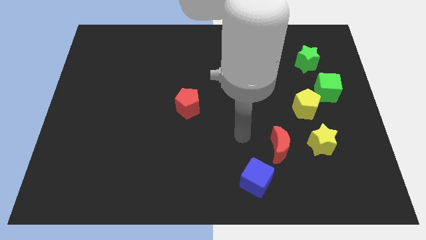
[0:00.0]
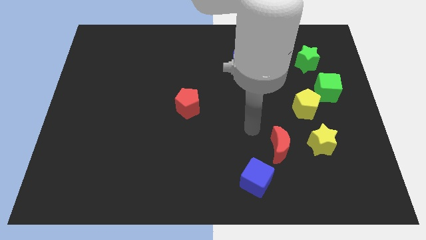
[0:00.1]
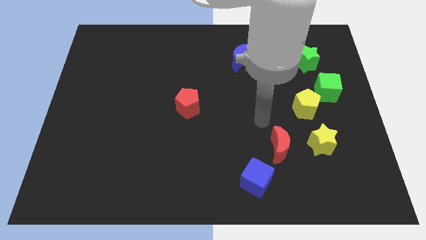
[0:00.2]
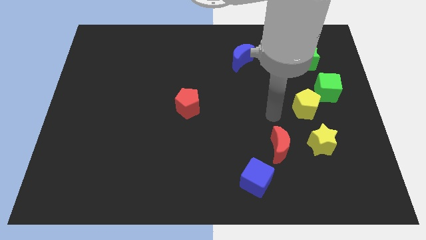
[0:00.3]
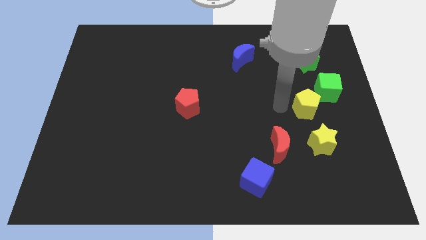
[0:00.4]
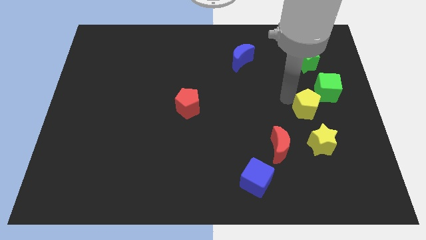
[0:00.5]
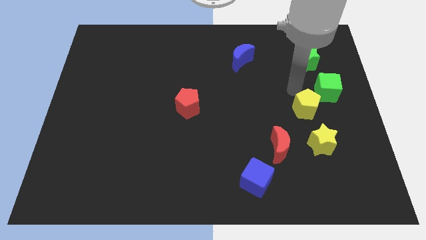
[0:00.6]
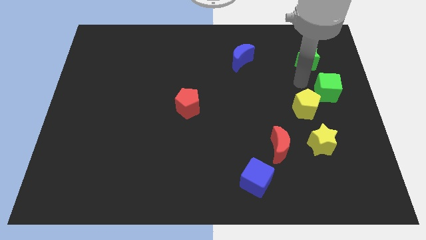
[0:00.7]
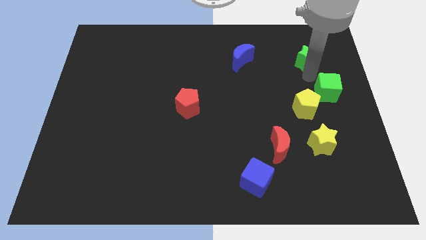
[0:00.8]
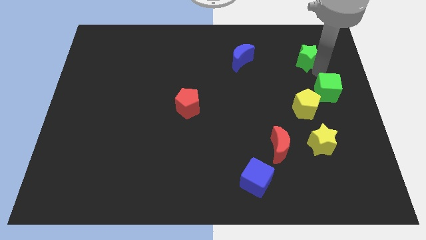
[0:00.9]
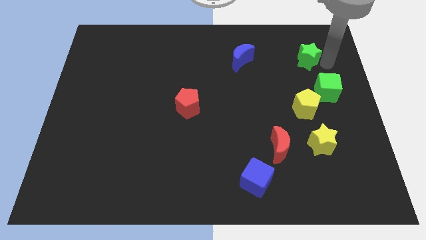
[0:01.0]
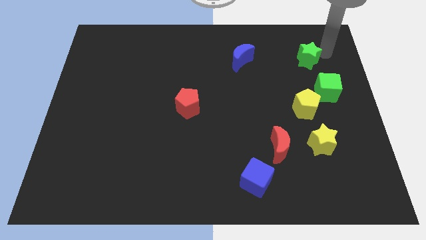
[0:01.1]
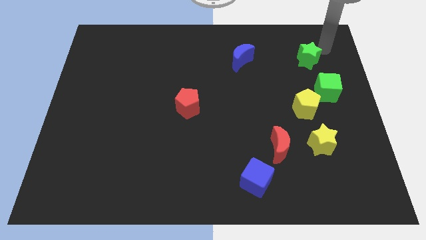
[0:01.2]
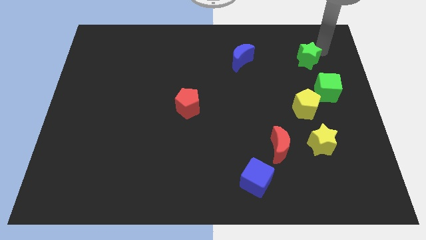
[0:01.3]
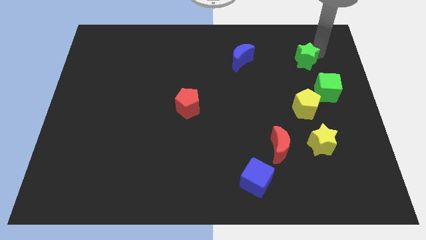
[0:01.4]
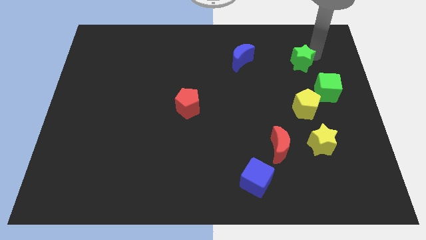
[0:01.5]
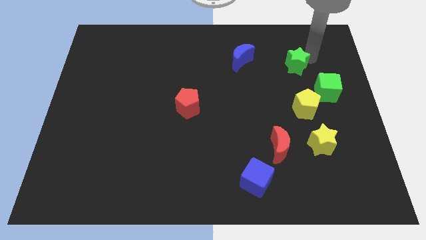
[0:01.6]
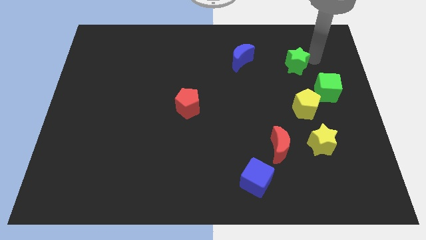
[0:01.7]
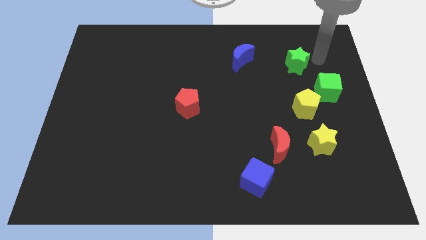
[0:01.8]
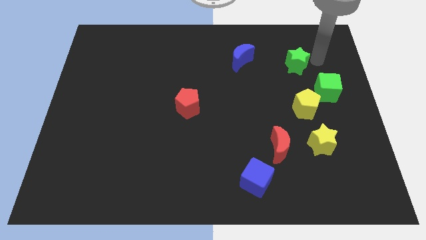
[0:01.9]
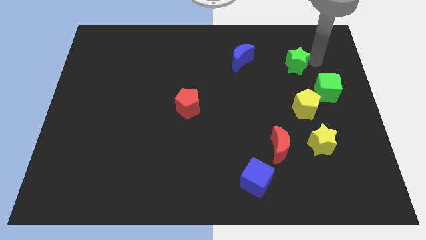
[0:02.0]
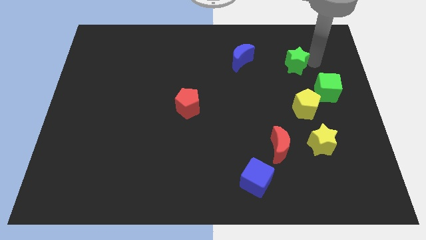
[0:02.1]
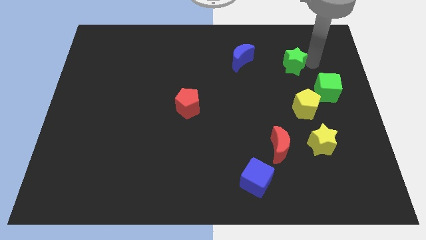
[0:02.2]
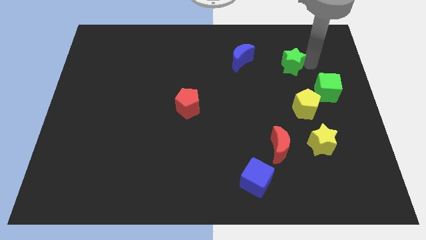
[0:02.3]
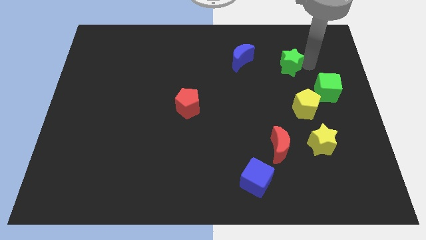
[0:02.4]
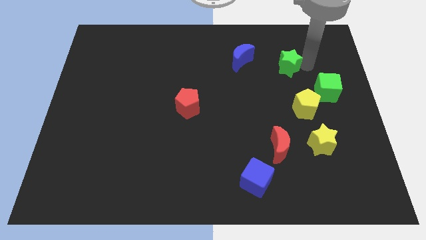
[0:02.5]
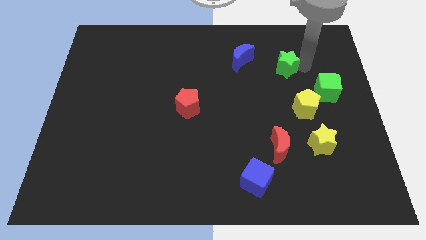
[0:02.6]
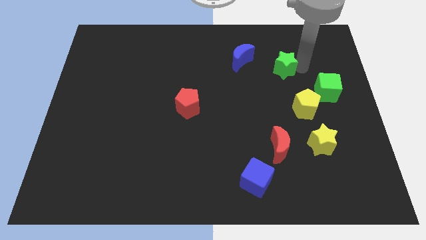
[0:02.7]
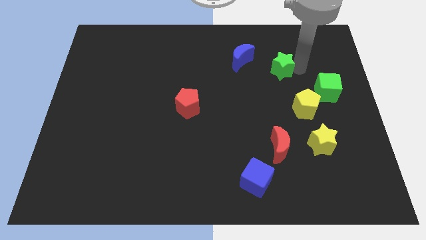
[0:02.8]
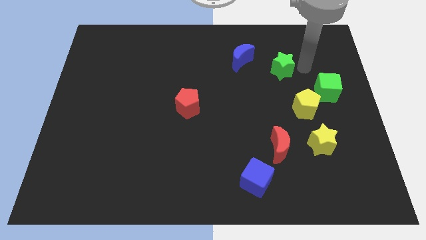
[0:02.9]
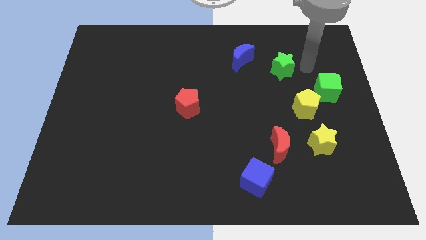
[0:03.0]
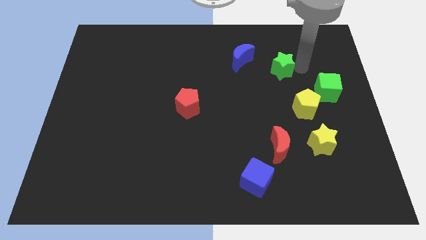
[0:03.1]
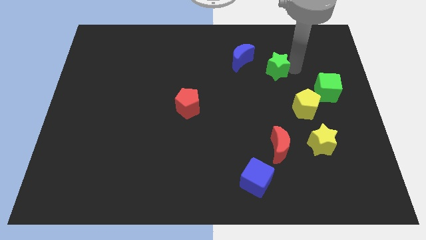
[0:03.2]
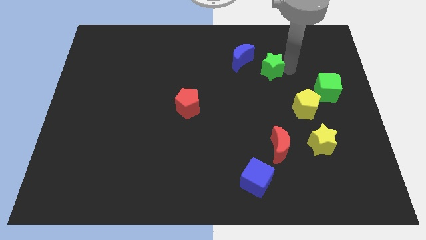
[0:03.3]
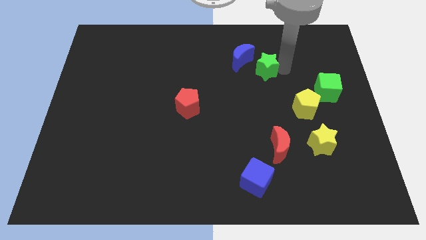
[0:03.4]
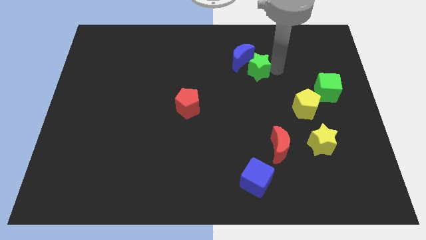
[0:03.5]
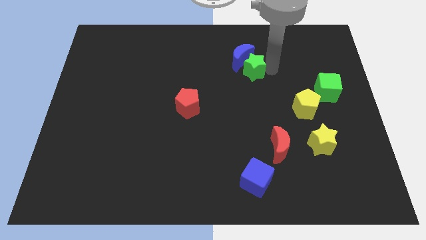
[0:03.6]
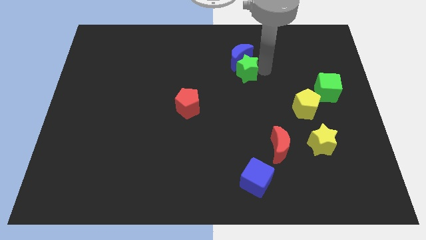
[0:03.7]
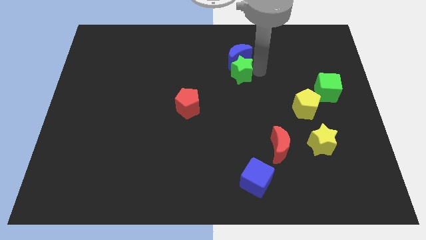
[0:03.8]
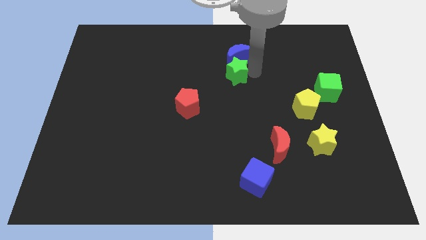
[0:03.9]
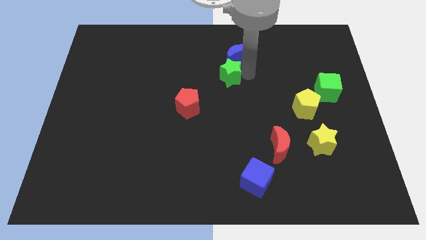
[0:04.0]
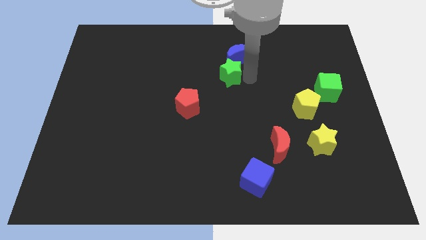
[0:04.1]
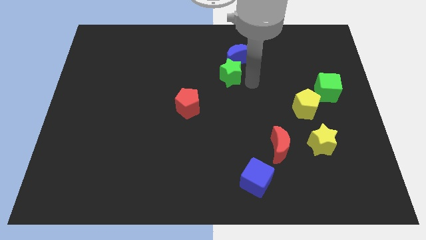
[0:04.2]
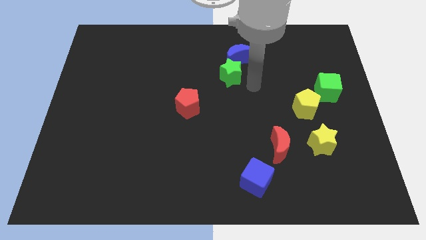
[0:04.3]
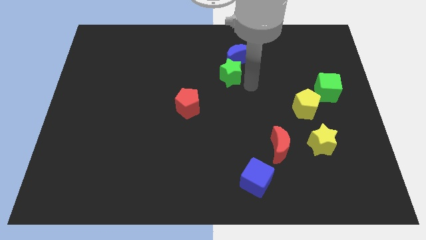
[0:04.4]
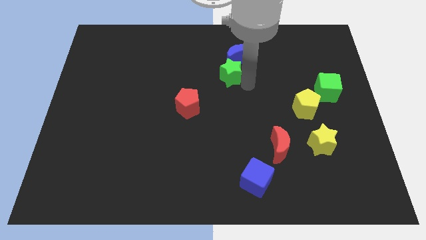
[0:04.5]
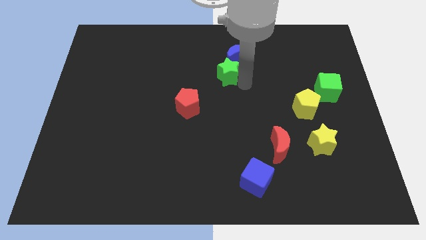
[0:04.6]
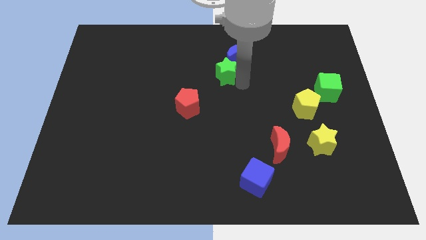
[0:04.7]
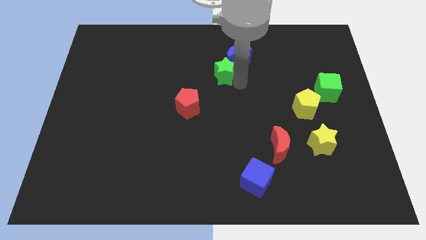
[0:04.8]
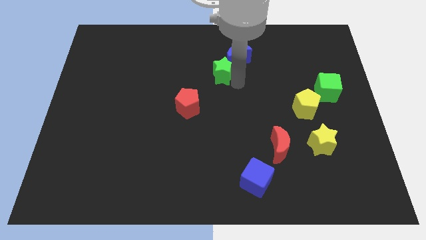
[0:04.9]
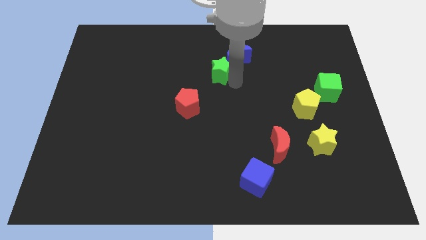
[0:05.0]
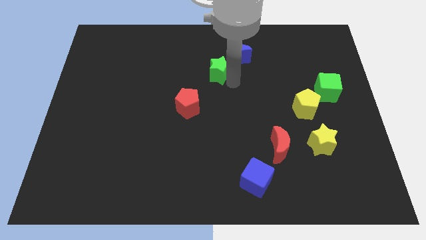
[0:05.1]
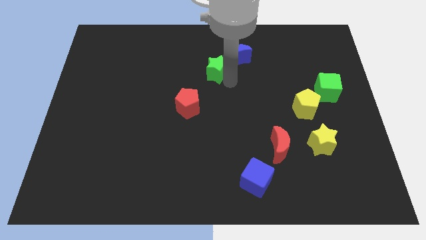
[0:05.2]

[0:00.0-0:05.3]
push the green star left of the blue moon

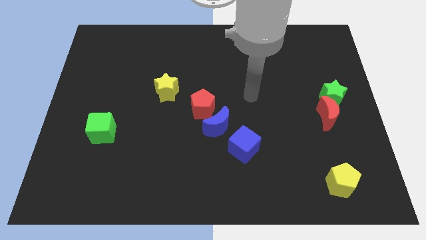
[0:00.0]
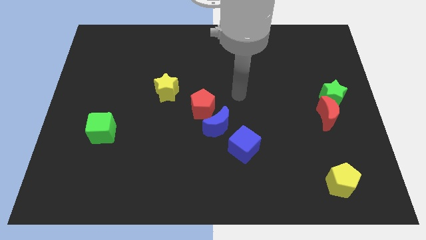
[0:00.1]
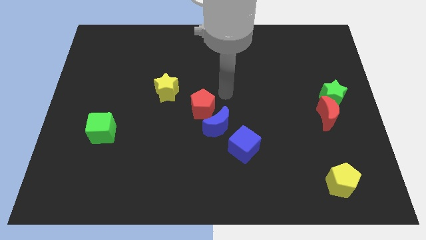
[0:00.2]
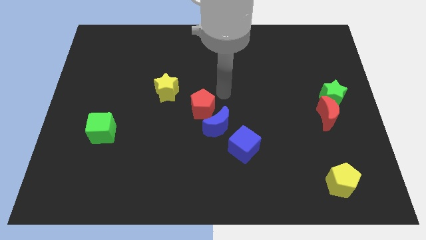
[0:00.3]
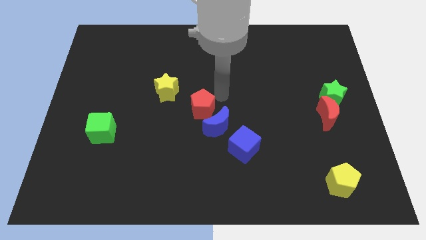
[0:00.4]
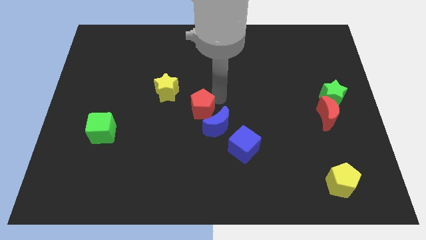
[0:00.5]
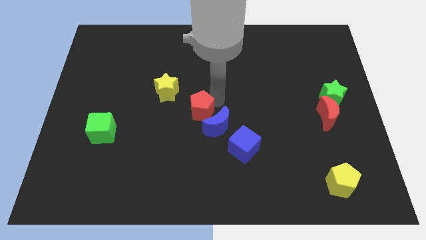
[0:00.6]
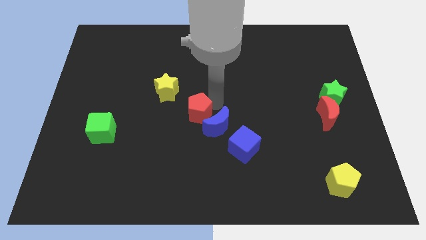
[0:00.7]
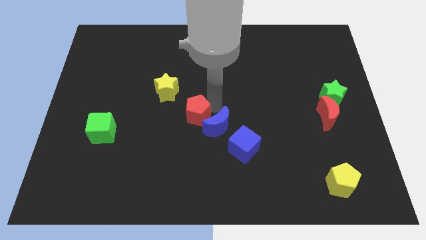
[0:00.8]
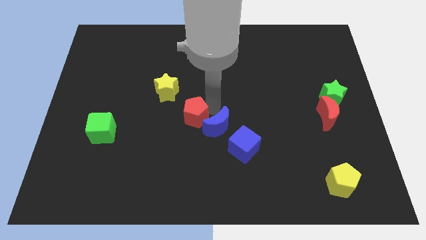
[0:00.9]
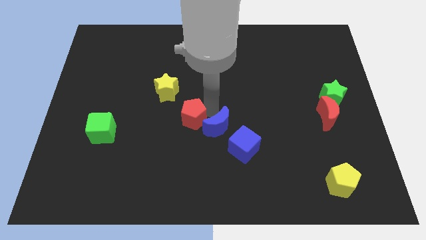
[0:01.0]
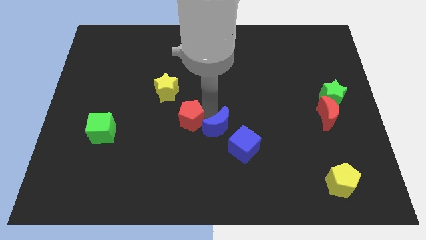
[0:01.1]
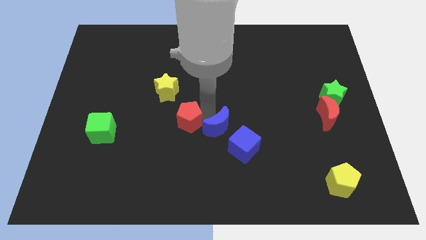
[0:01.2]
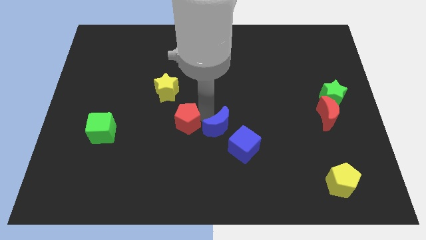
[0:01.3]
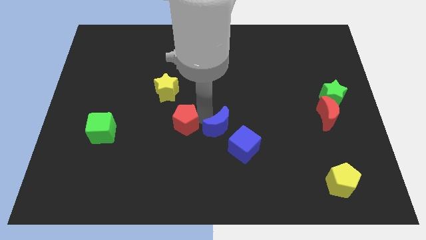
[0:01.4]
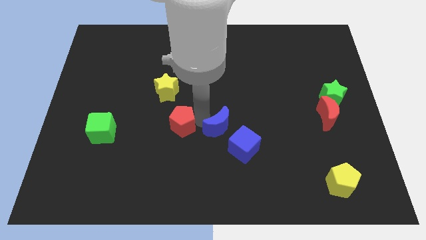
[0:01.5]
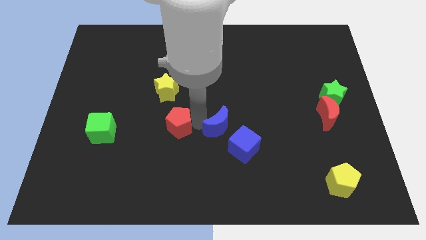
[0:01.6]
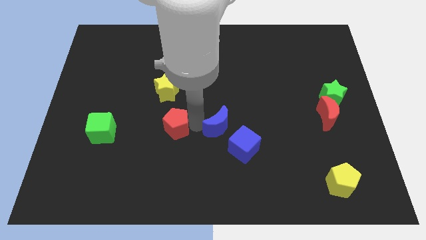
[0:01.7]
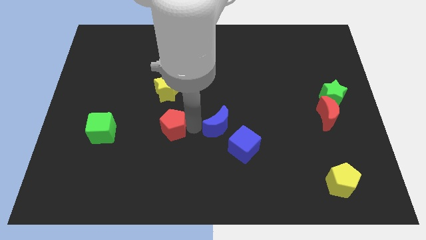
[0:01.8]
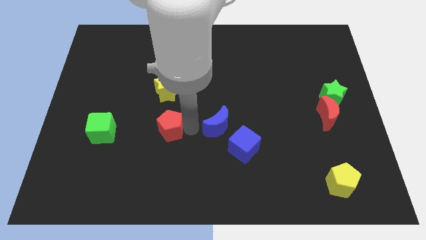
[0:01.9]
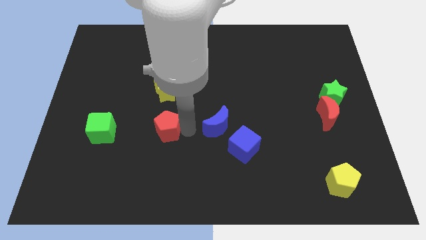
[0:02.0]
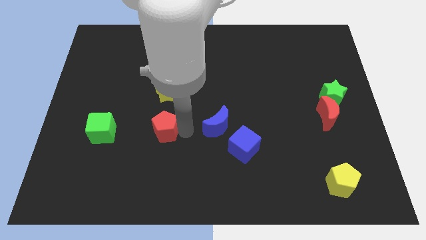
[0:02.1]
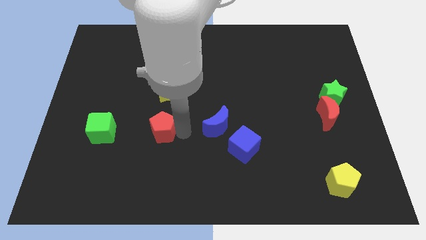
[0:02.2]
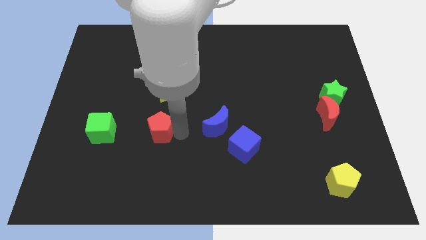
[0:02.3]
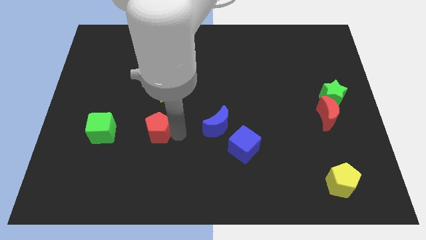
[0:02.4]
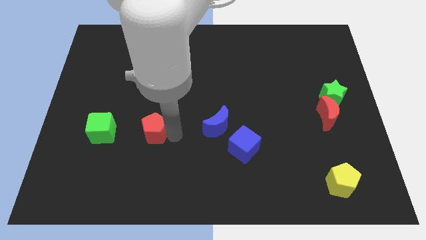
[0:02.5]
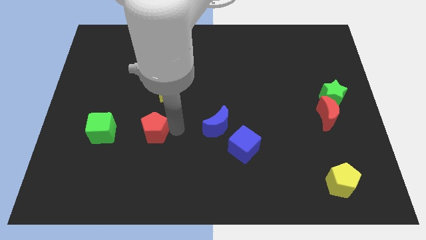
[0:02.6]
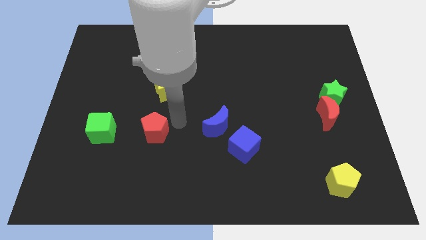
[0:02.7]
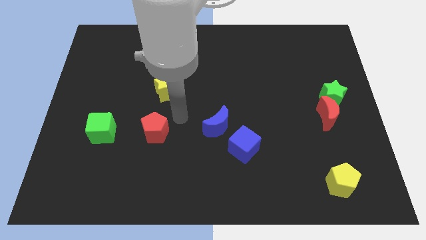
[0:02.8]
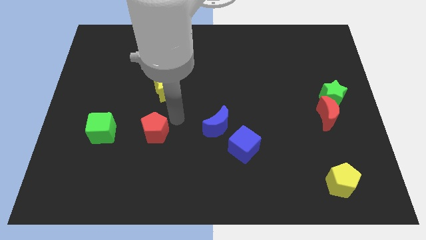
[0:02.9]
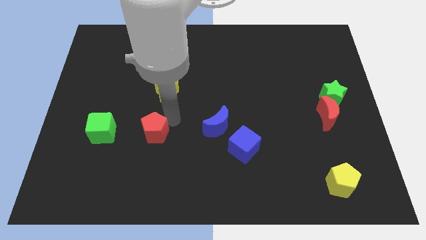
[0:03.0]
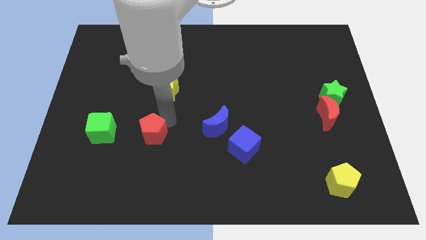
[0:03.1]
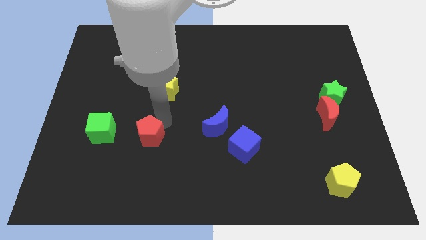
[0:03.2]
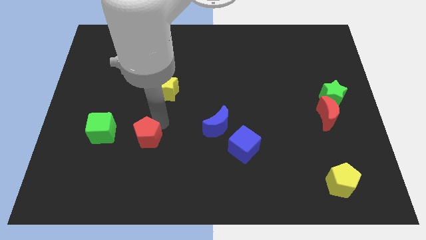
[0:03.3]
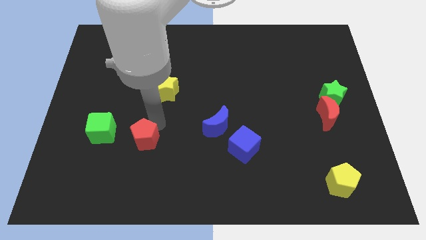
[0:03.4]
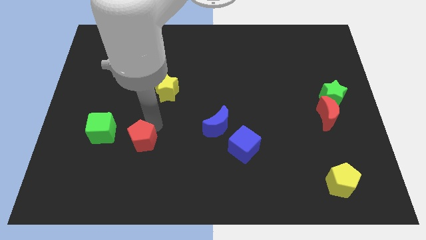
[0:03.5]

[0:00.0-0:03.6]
slide the red pentagon to the bottom right side of the green cube
